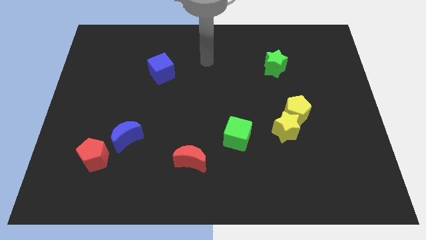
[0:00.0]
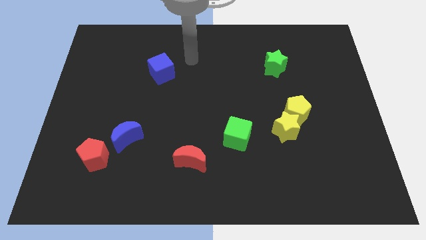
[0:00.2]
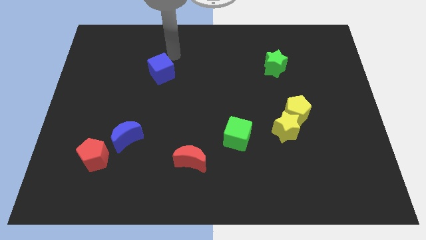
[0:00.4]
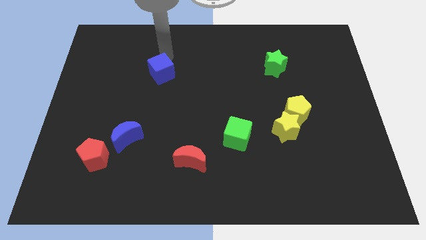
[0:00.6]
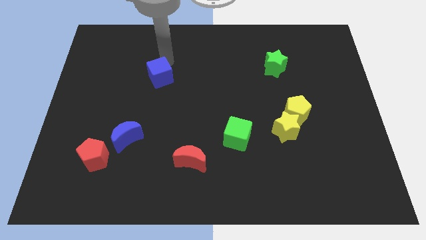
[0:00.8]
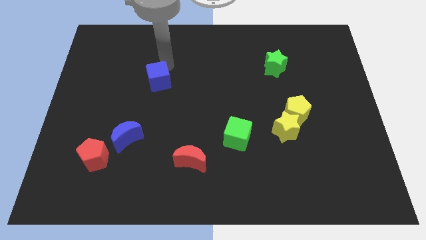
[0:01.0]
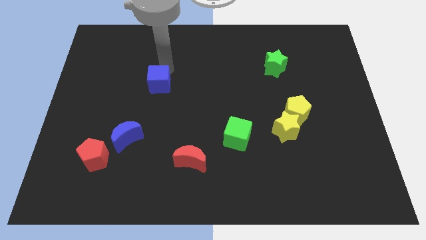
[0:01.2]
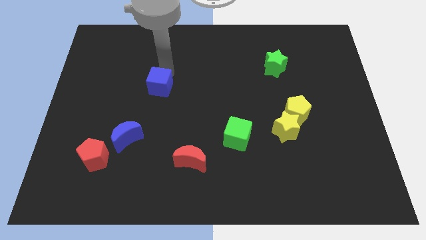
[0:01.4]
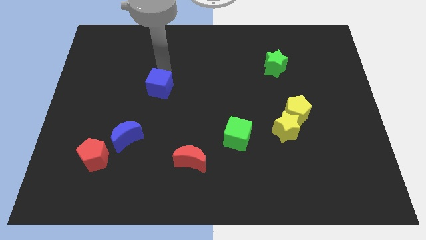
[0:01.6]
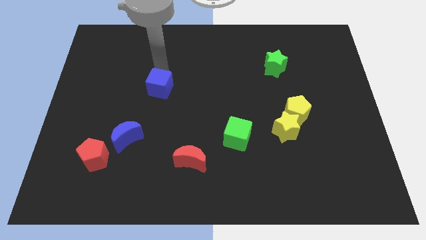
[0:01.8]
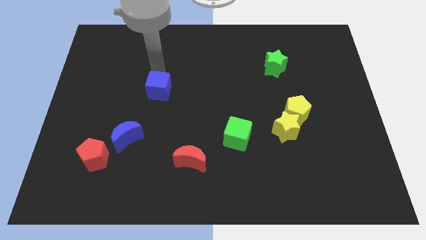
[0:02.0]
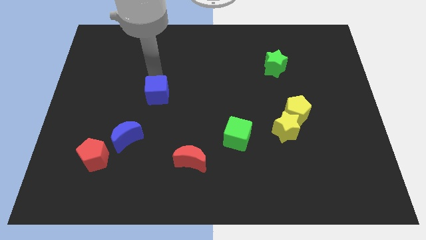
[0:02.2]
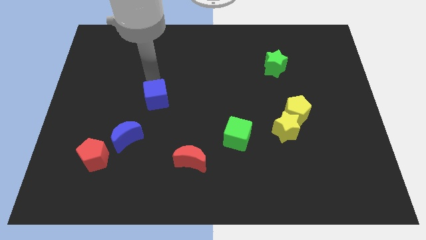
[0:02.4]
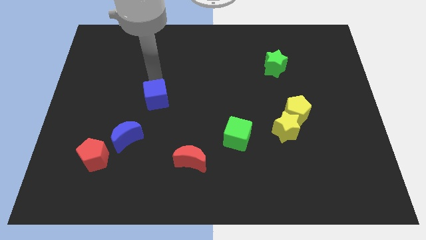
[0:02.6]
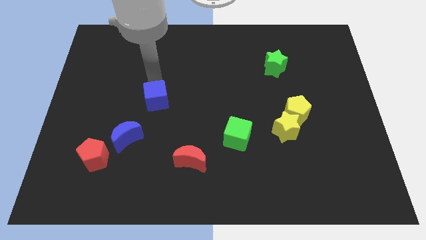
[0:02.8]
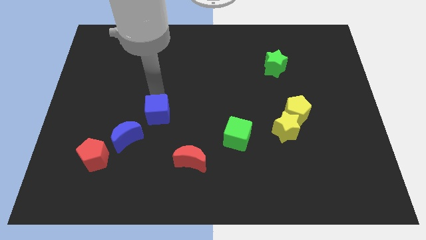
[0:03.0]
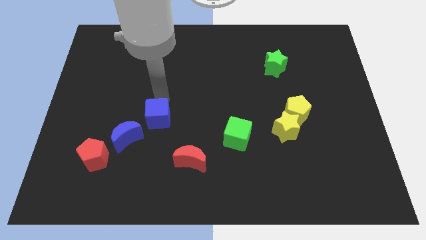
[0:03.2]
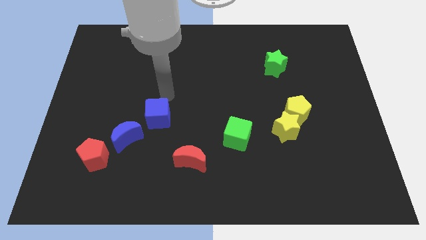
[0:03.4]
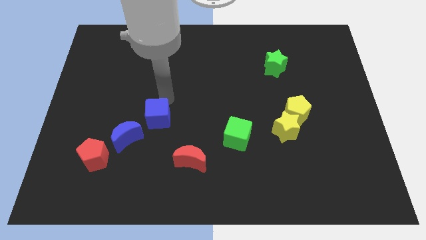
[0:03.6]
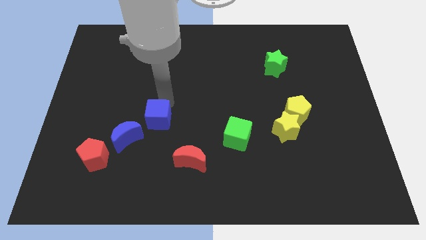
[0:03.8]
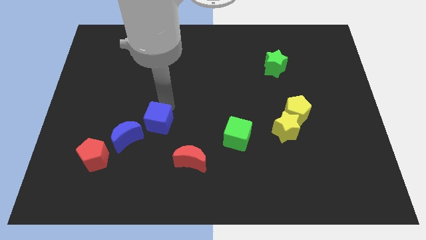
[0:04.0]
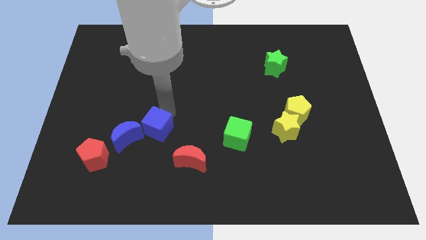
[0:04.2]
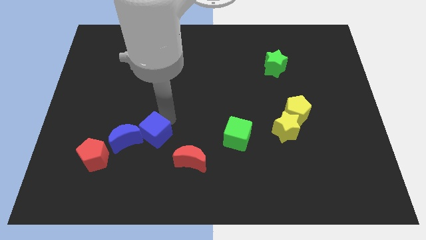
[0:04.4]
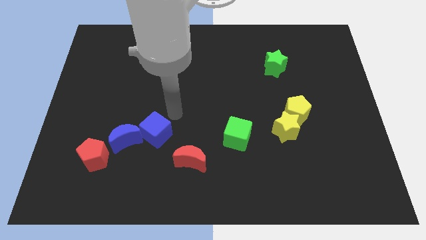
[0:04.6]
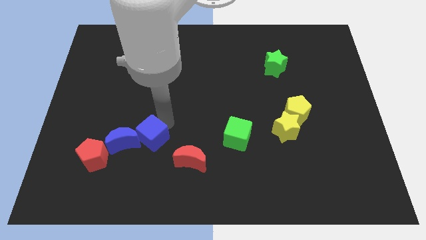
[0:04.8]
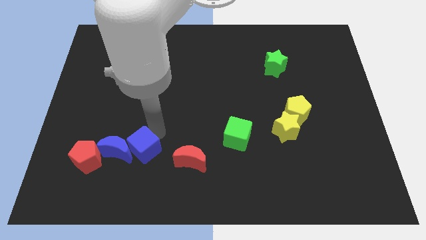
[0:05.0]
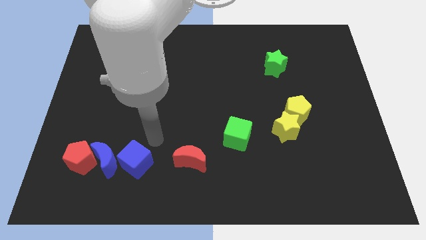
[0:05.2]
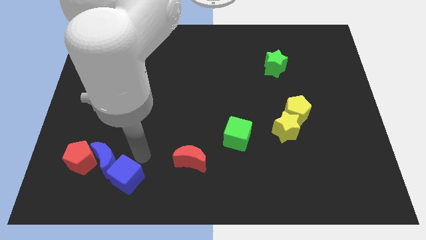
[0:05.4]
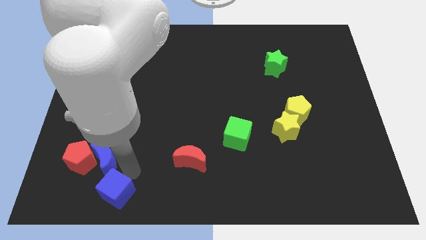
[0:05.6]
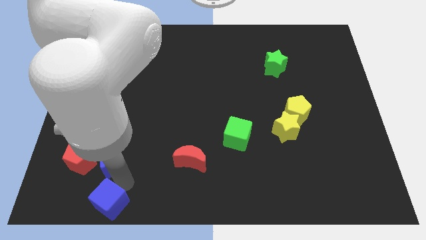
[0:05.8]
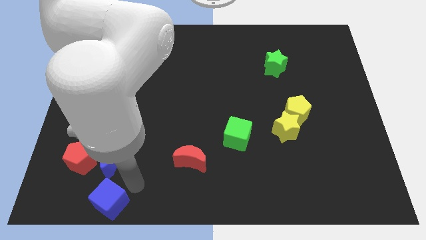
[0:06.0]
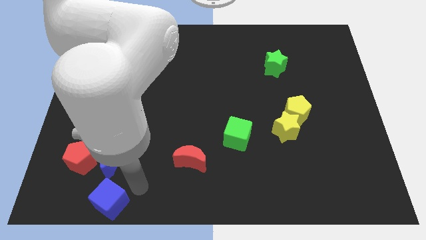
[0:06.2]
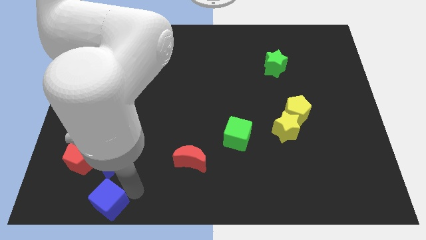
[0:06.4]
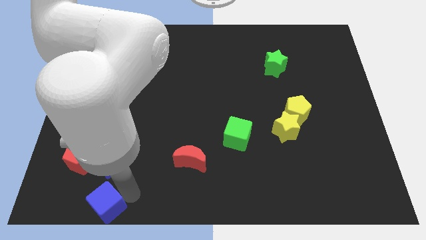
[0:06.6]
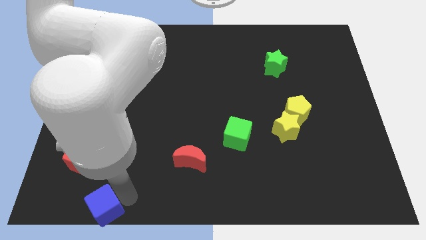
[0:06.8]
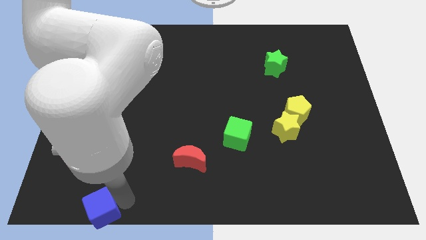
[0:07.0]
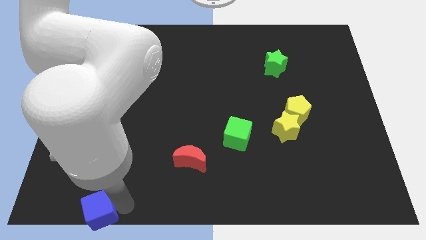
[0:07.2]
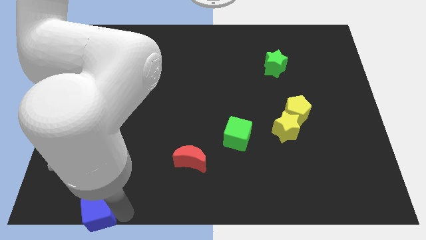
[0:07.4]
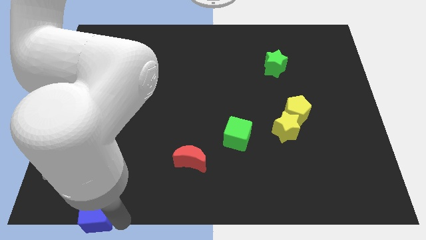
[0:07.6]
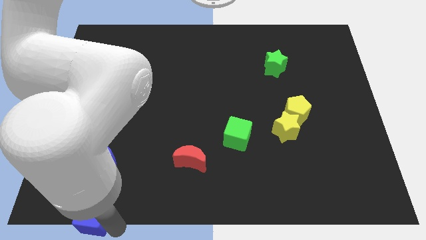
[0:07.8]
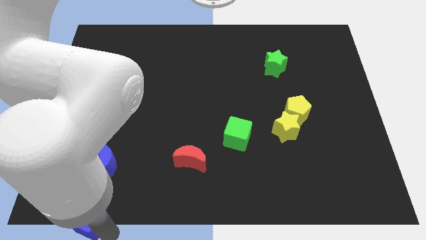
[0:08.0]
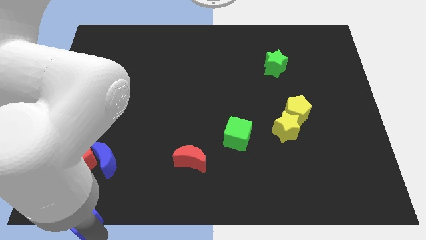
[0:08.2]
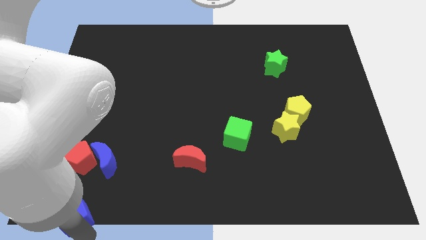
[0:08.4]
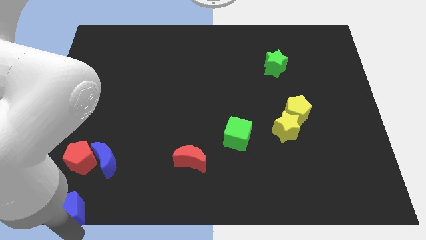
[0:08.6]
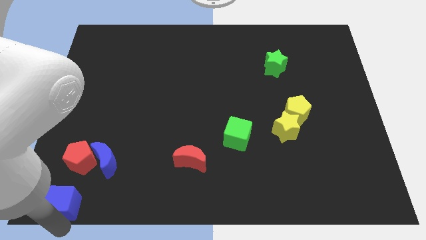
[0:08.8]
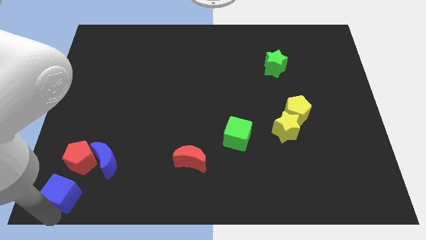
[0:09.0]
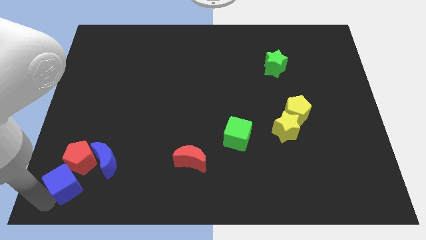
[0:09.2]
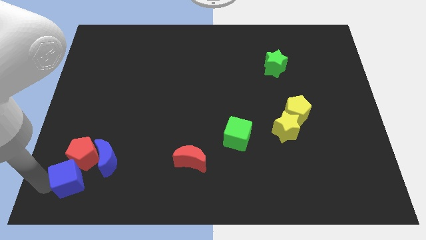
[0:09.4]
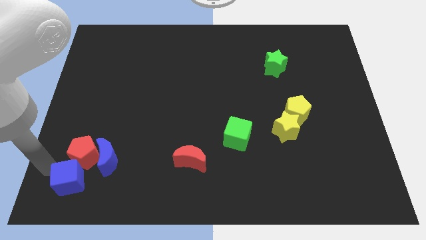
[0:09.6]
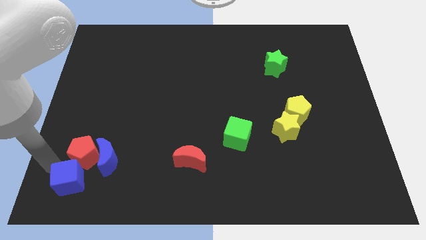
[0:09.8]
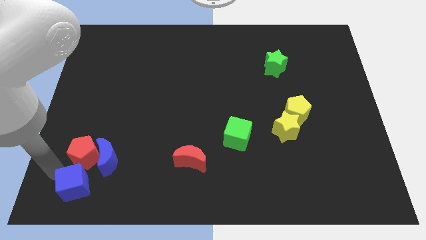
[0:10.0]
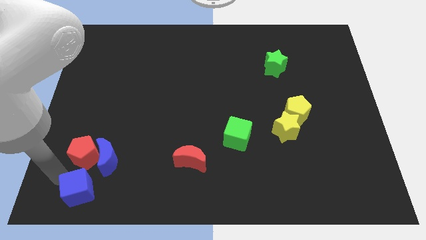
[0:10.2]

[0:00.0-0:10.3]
move the blue cube to the bottom side of the blue moon

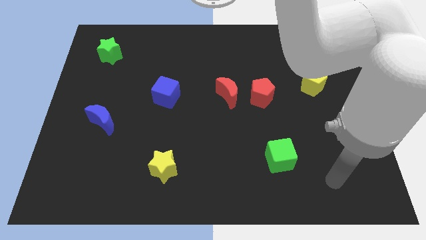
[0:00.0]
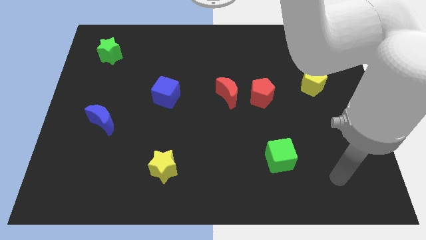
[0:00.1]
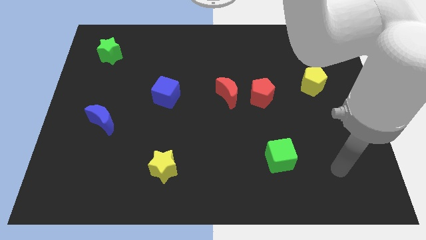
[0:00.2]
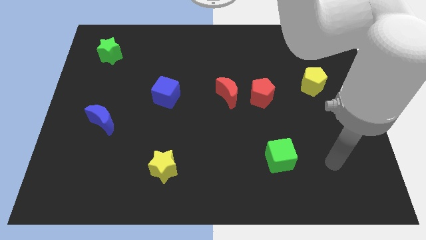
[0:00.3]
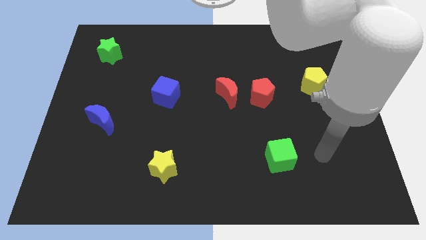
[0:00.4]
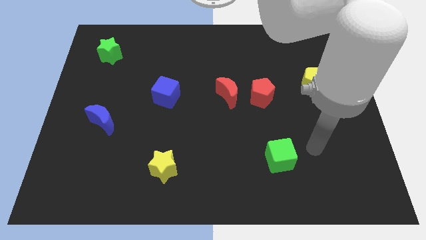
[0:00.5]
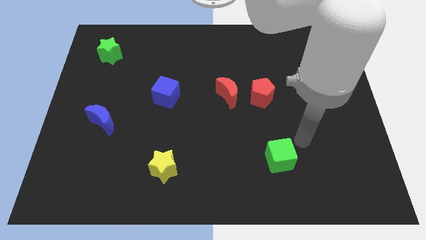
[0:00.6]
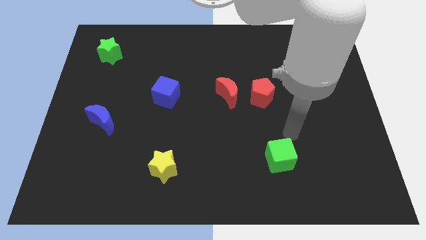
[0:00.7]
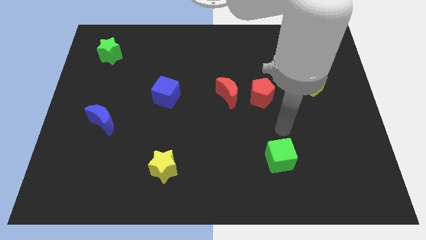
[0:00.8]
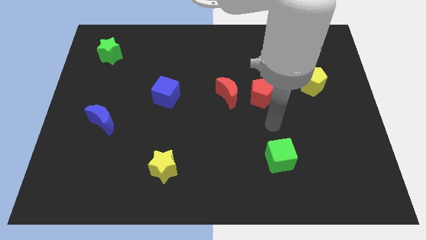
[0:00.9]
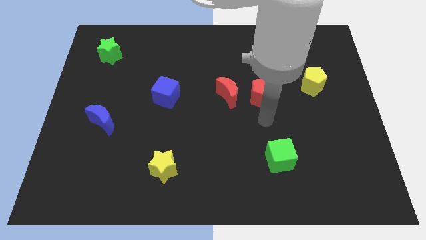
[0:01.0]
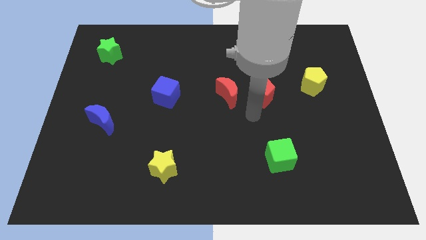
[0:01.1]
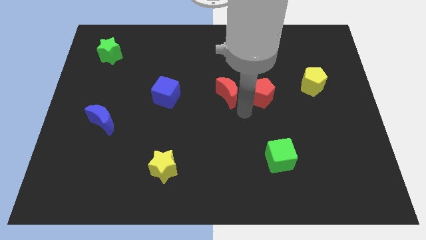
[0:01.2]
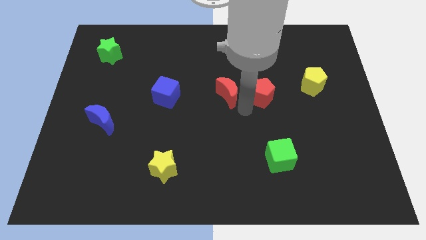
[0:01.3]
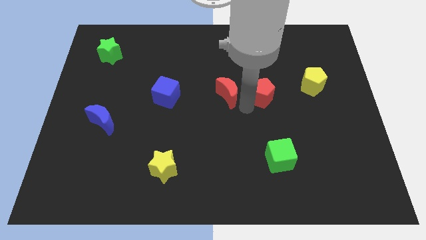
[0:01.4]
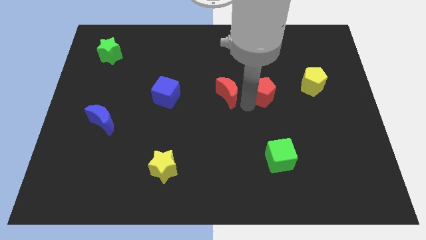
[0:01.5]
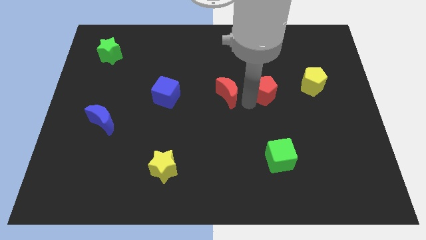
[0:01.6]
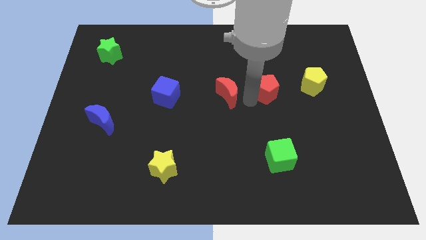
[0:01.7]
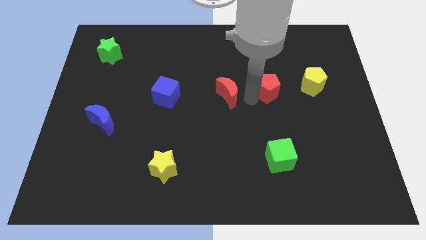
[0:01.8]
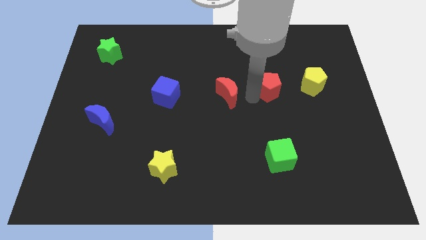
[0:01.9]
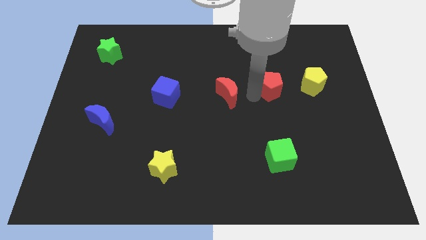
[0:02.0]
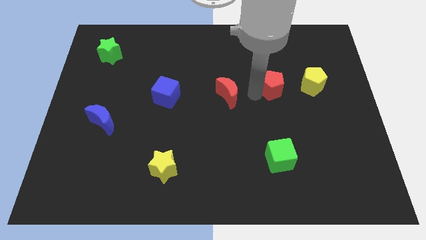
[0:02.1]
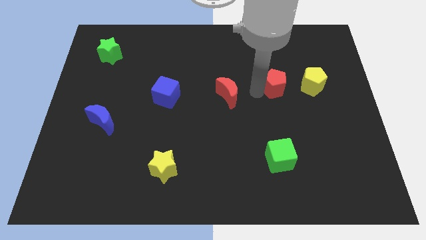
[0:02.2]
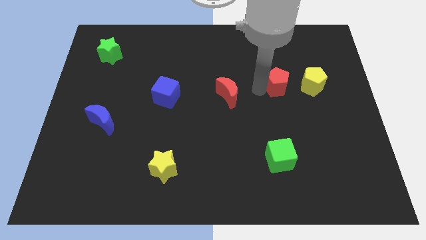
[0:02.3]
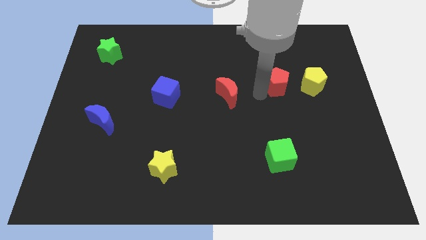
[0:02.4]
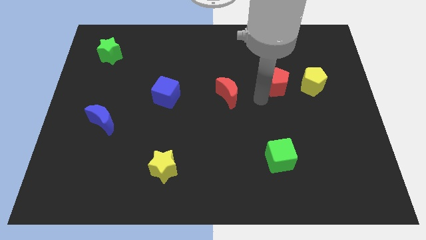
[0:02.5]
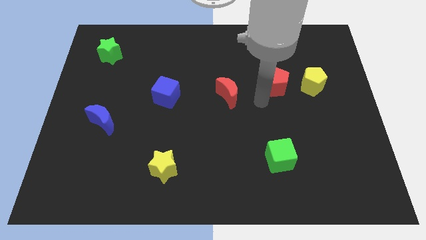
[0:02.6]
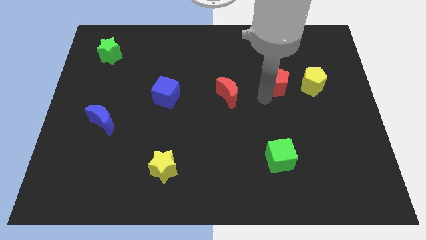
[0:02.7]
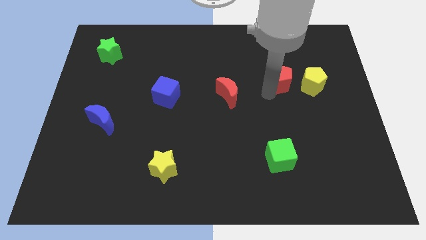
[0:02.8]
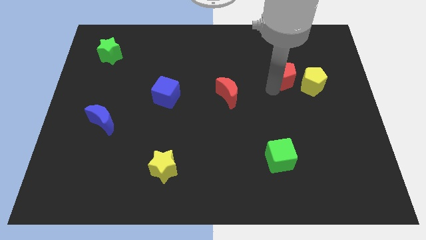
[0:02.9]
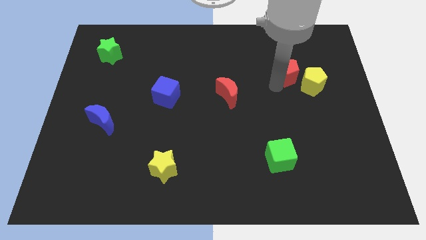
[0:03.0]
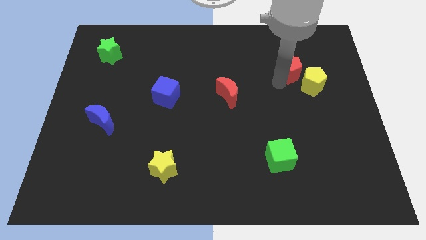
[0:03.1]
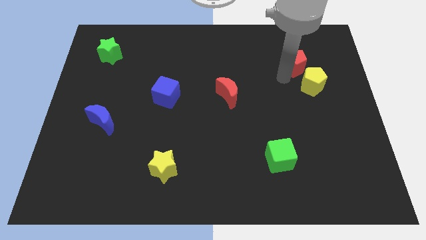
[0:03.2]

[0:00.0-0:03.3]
put the red pentagon above the yellow pentagon
